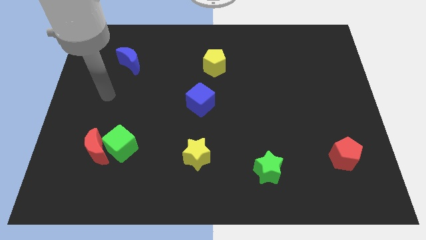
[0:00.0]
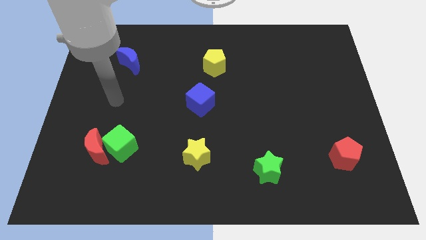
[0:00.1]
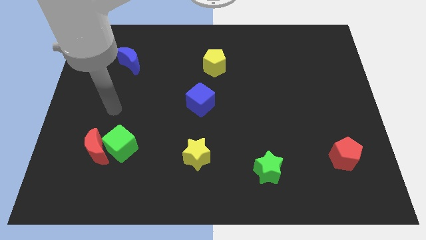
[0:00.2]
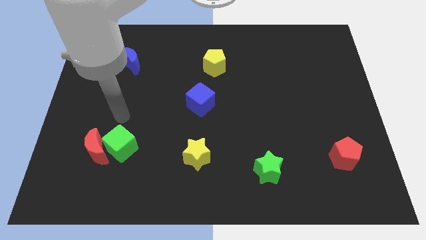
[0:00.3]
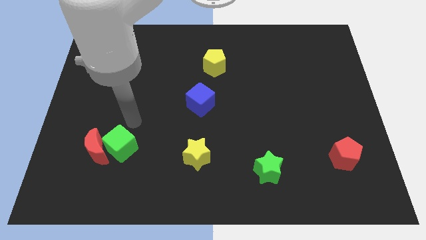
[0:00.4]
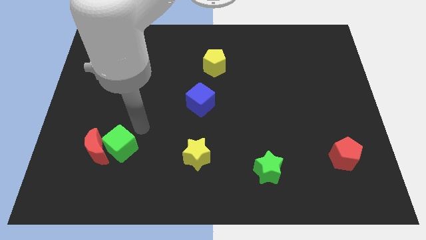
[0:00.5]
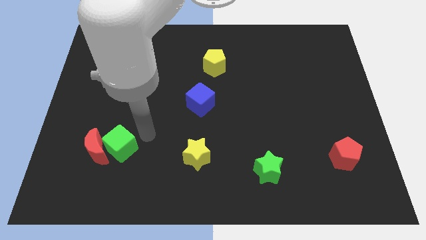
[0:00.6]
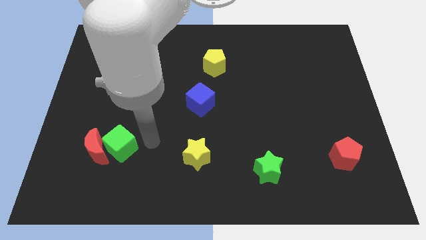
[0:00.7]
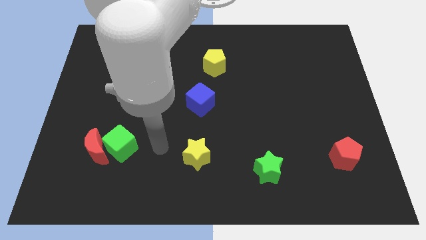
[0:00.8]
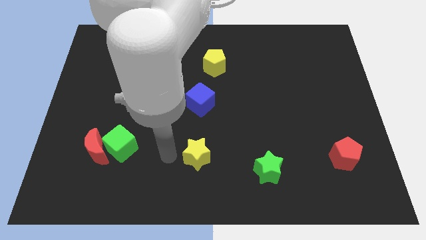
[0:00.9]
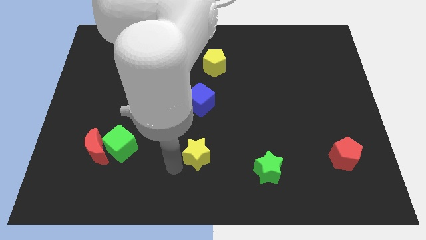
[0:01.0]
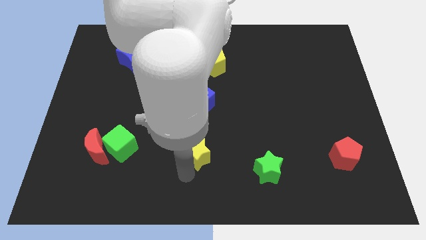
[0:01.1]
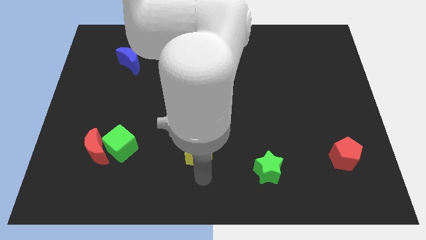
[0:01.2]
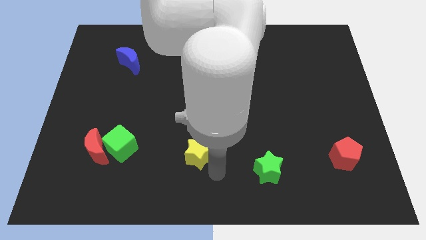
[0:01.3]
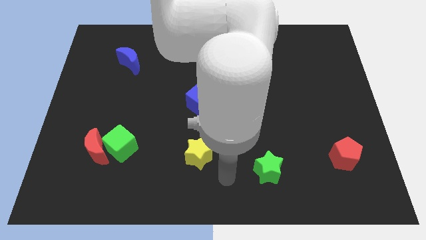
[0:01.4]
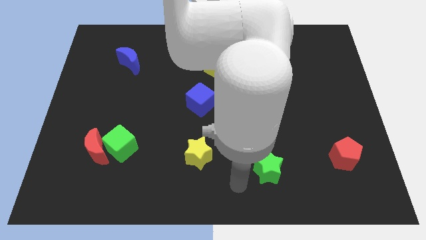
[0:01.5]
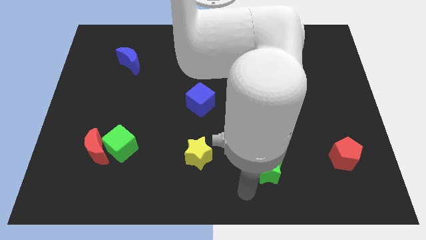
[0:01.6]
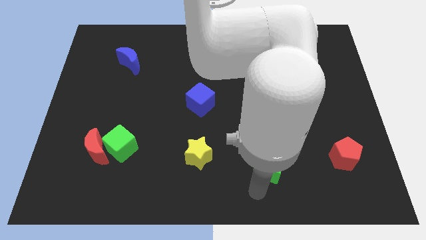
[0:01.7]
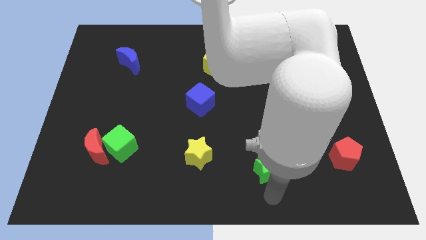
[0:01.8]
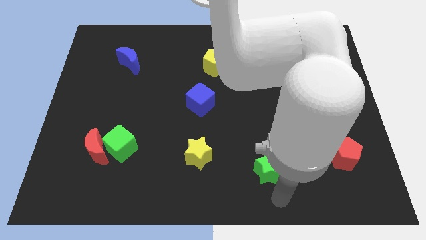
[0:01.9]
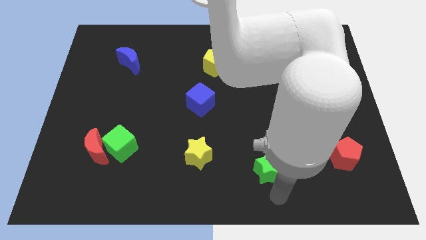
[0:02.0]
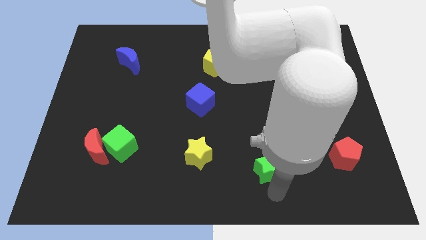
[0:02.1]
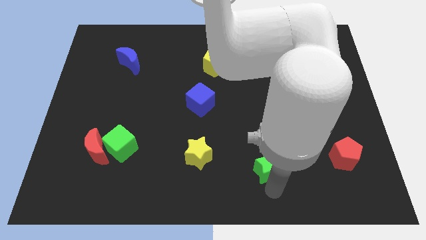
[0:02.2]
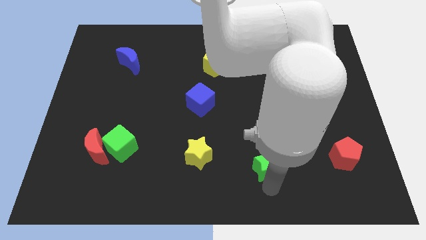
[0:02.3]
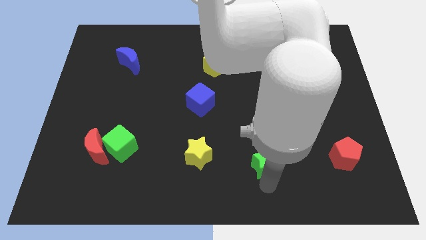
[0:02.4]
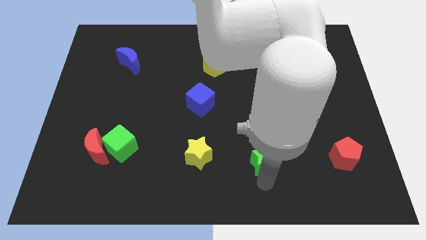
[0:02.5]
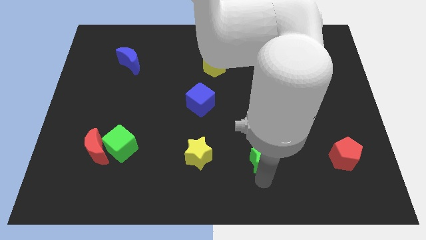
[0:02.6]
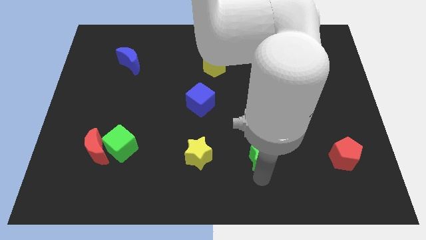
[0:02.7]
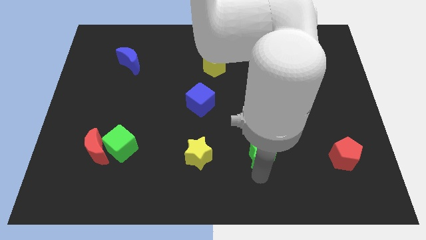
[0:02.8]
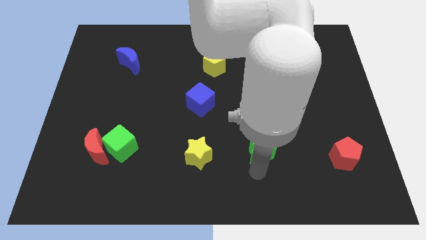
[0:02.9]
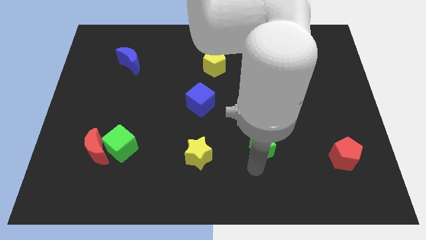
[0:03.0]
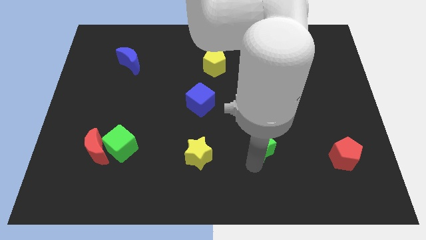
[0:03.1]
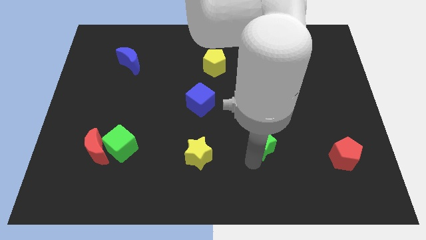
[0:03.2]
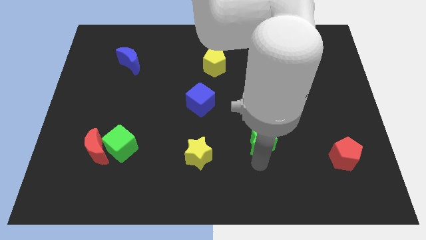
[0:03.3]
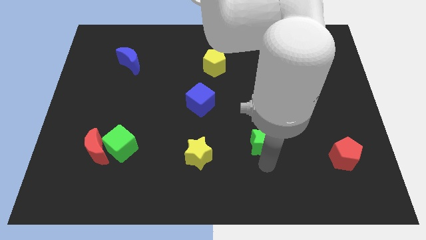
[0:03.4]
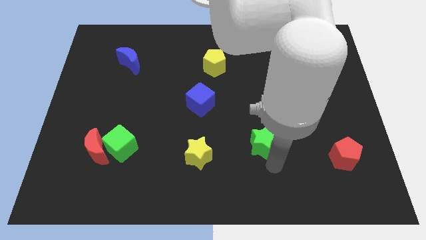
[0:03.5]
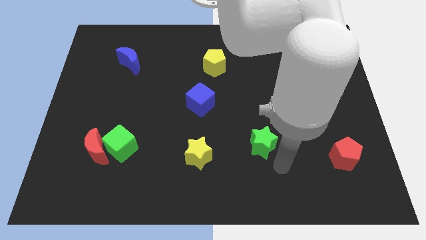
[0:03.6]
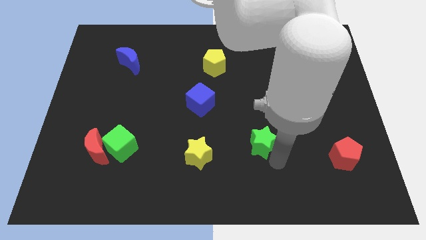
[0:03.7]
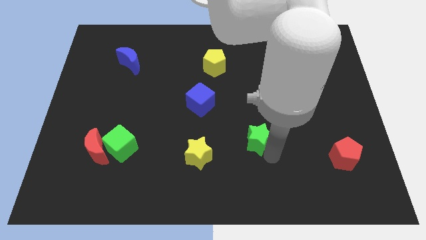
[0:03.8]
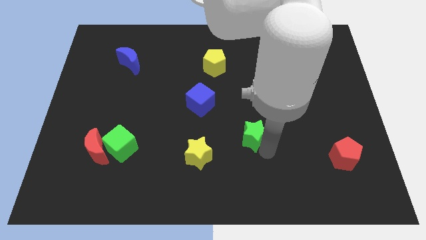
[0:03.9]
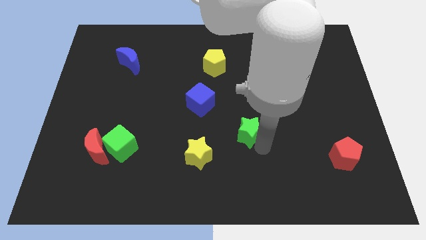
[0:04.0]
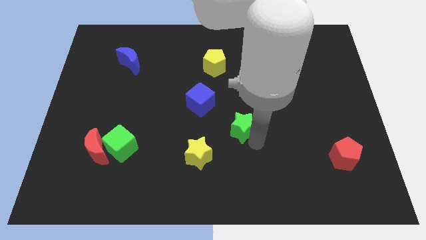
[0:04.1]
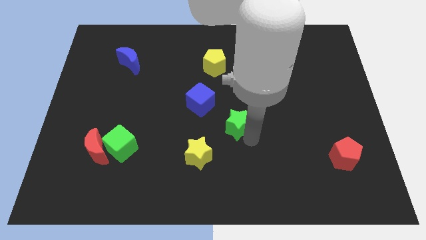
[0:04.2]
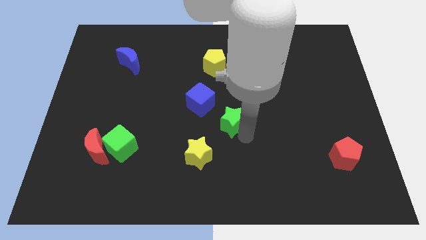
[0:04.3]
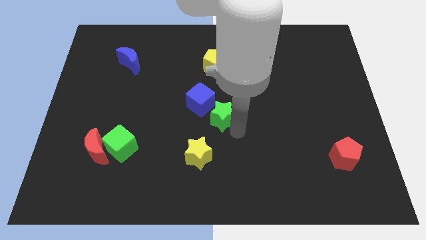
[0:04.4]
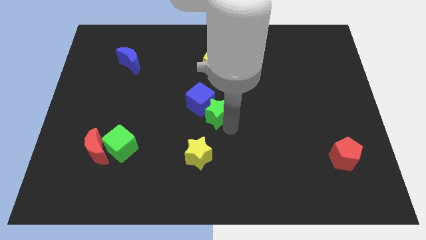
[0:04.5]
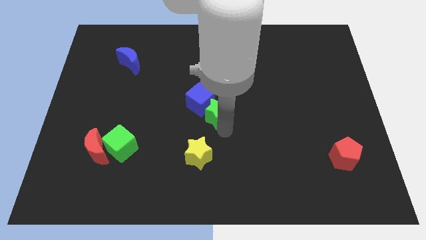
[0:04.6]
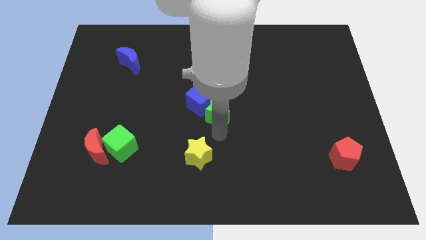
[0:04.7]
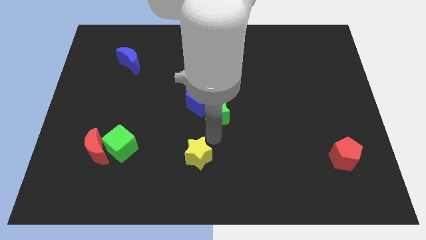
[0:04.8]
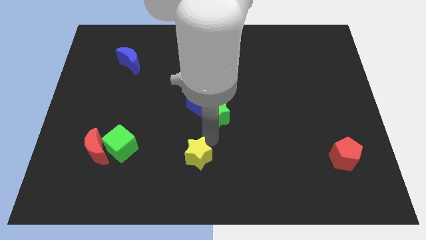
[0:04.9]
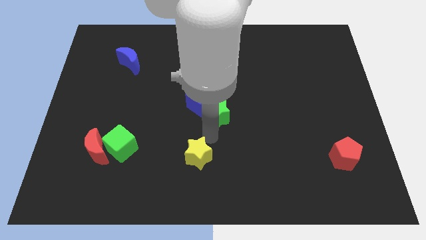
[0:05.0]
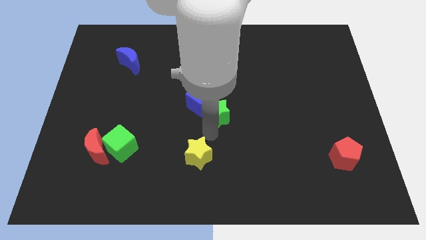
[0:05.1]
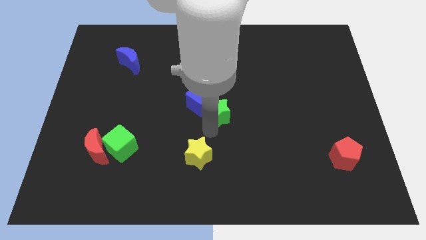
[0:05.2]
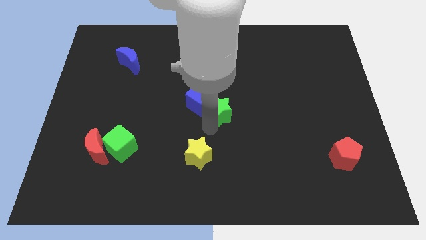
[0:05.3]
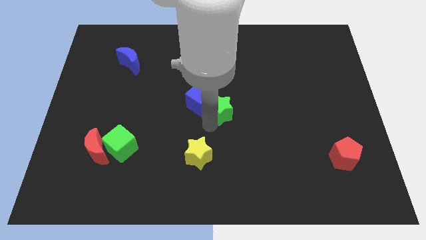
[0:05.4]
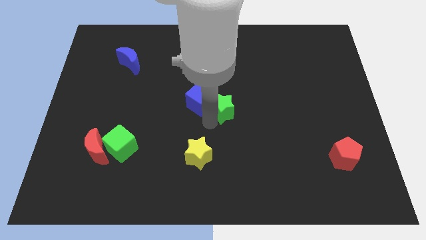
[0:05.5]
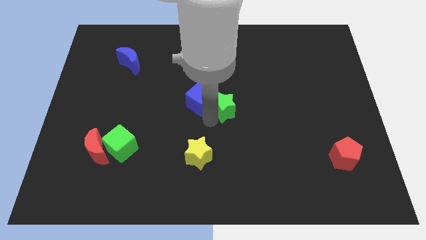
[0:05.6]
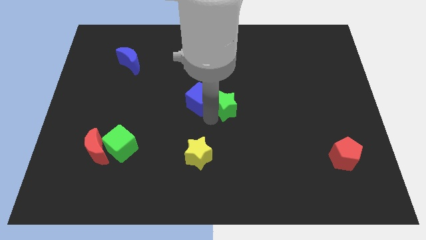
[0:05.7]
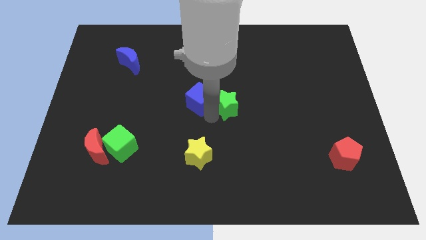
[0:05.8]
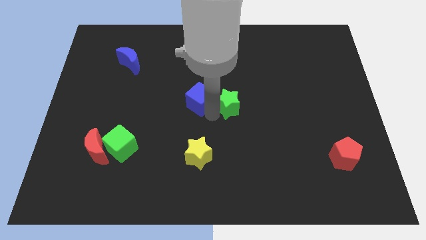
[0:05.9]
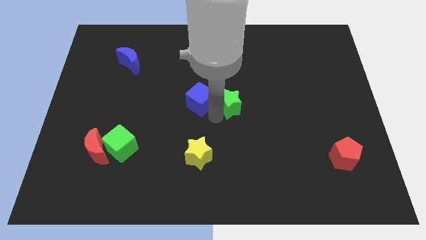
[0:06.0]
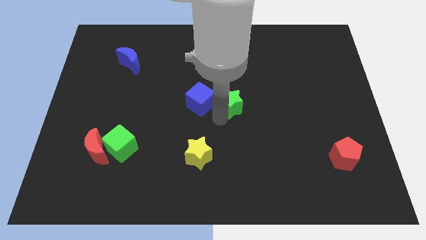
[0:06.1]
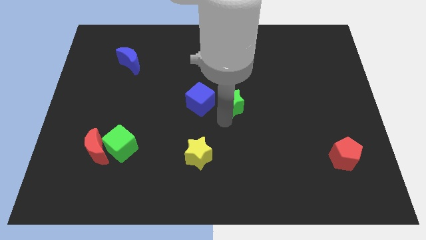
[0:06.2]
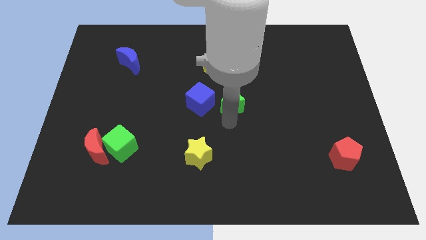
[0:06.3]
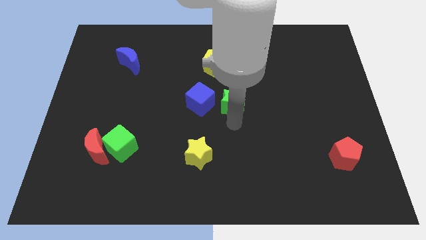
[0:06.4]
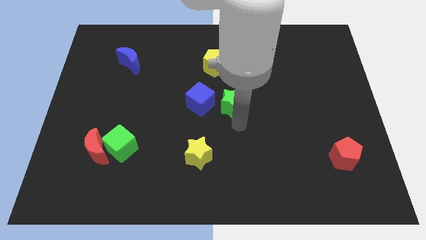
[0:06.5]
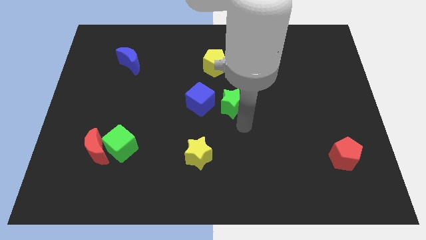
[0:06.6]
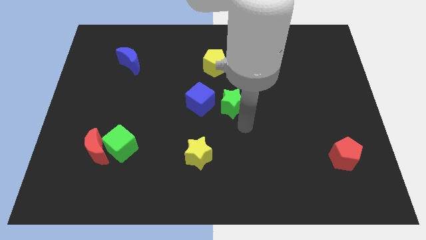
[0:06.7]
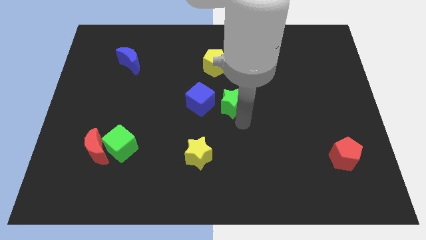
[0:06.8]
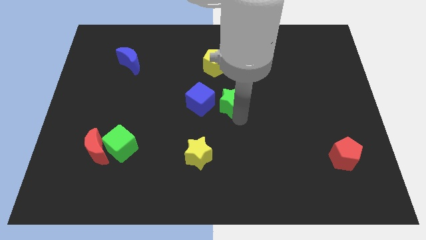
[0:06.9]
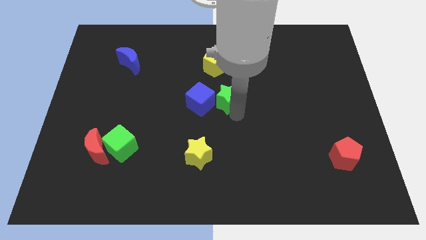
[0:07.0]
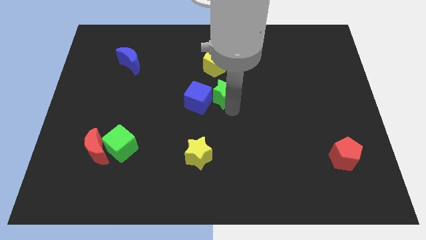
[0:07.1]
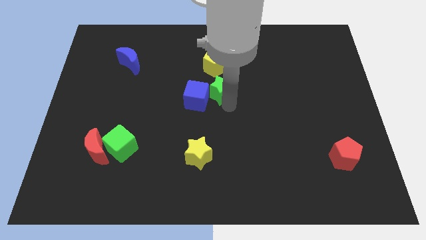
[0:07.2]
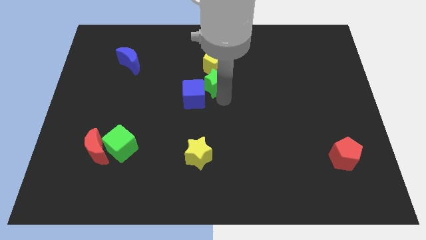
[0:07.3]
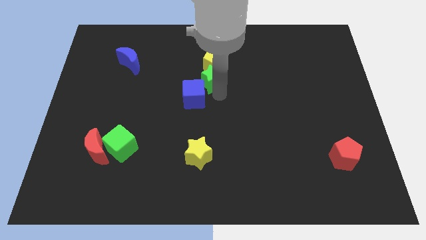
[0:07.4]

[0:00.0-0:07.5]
move the green star close to the yellow pentagon
